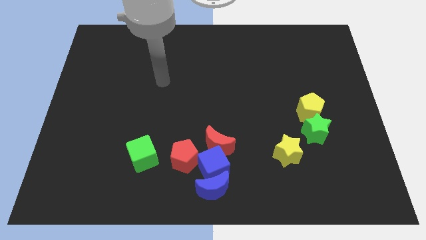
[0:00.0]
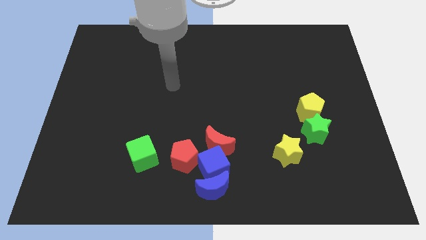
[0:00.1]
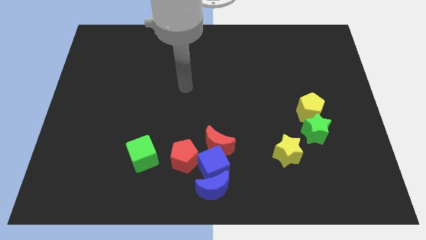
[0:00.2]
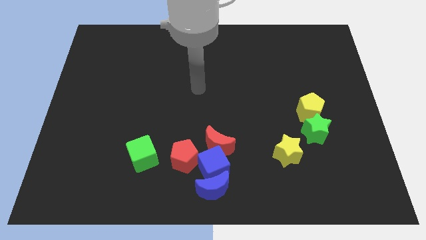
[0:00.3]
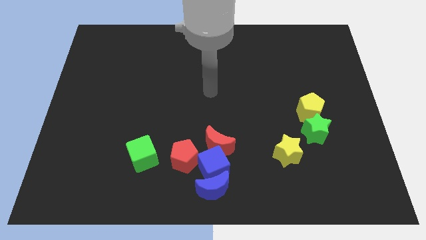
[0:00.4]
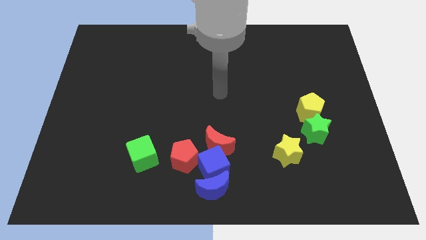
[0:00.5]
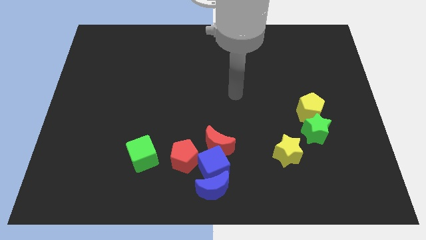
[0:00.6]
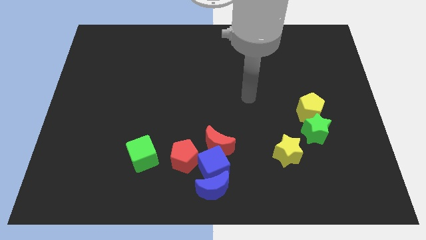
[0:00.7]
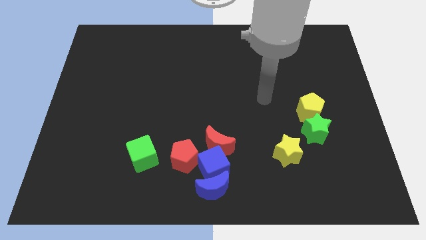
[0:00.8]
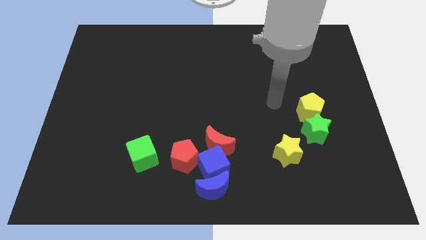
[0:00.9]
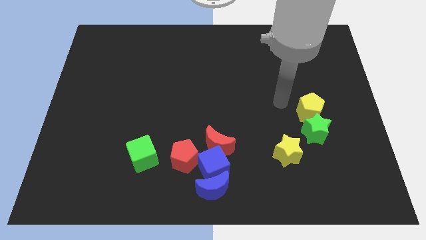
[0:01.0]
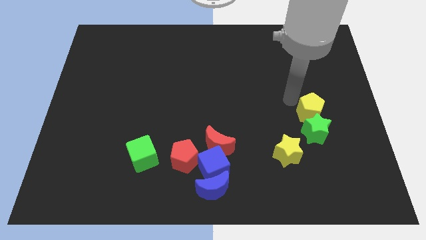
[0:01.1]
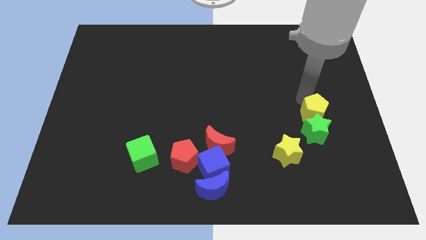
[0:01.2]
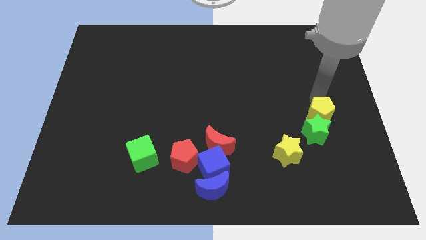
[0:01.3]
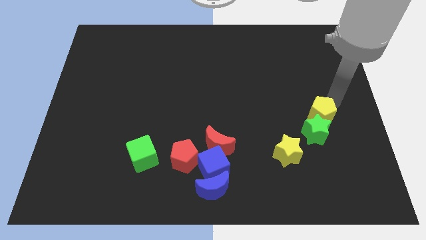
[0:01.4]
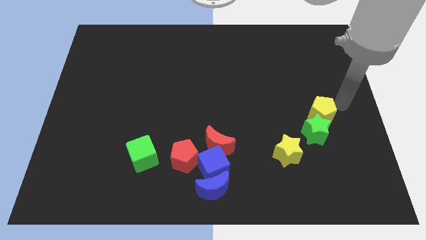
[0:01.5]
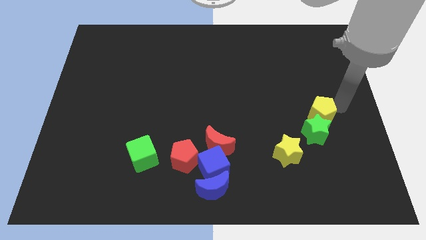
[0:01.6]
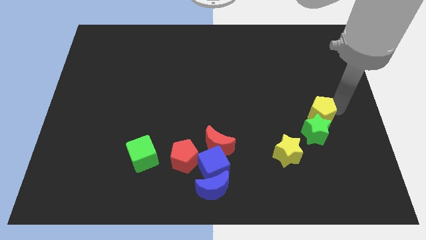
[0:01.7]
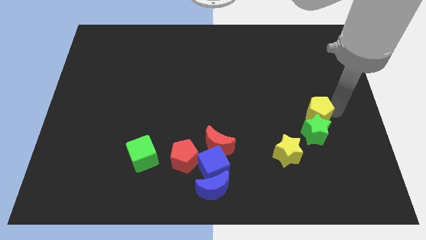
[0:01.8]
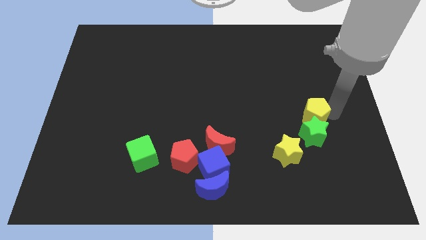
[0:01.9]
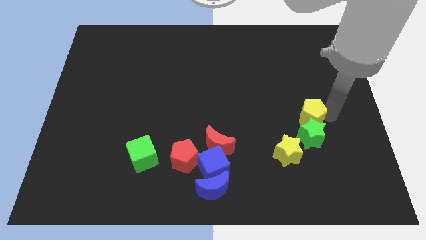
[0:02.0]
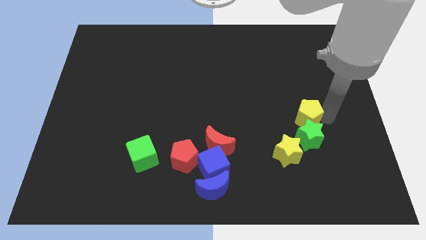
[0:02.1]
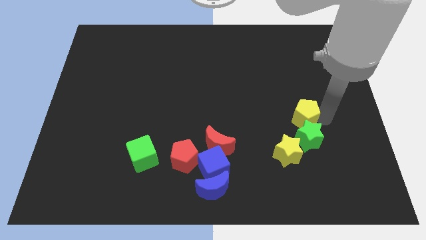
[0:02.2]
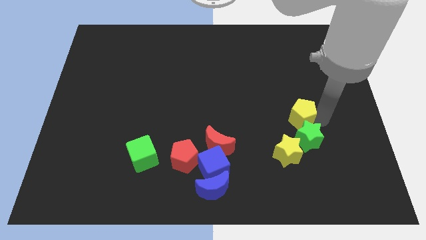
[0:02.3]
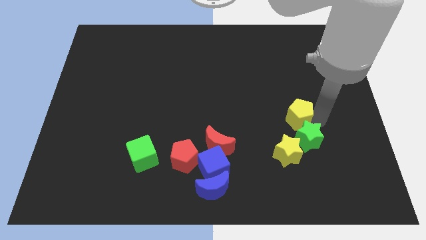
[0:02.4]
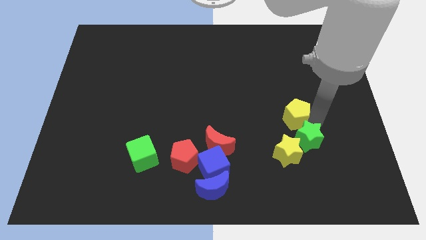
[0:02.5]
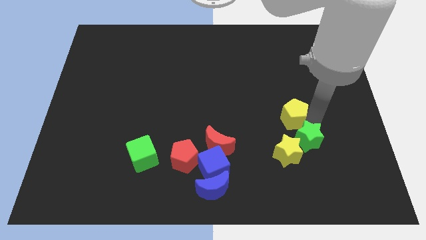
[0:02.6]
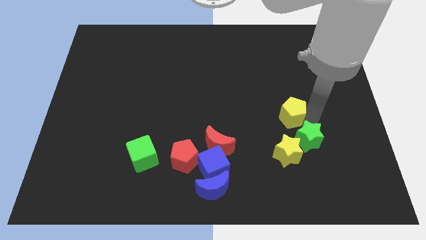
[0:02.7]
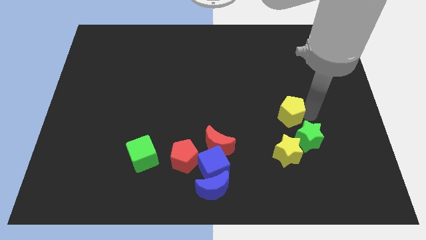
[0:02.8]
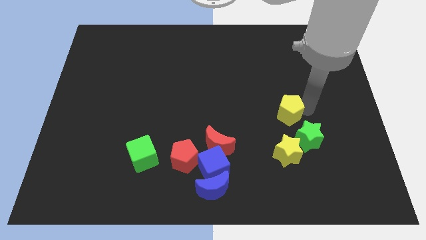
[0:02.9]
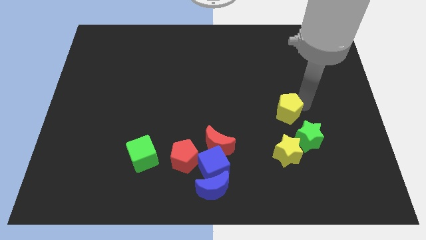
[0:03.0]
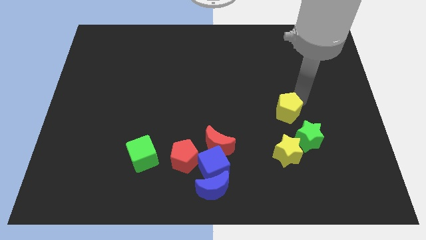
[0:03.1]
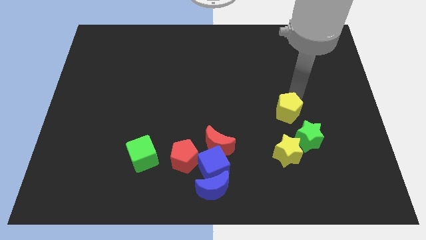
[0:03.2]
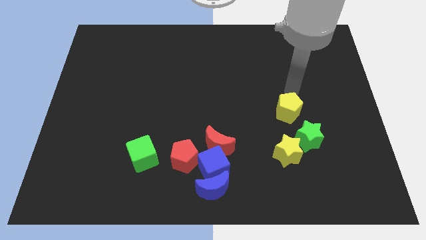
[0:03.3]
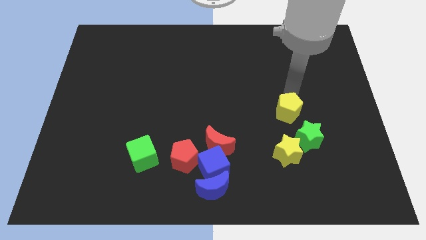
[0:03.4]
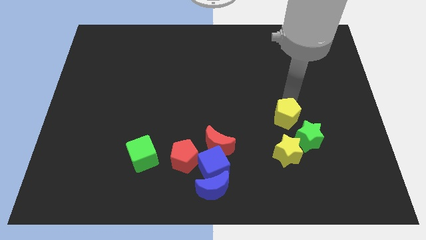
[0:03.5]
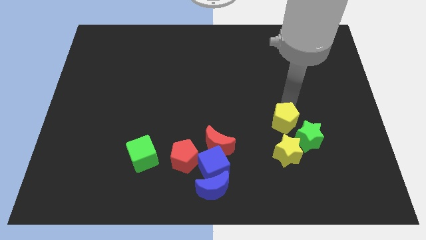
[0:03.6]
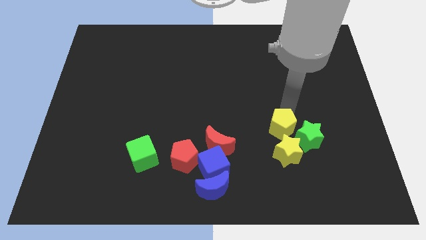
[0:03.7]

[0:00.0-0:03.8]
slightly slide the yellow pentagon diagonally downwards and left

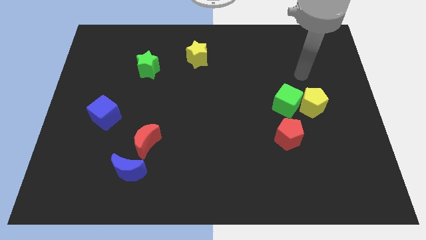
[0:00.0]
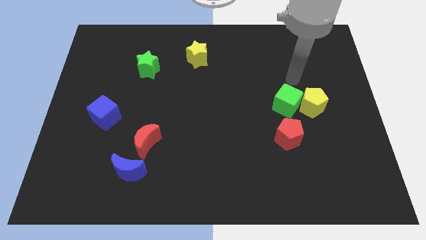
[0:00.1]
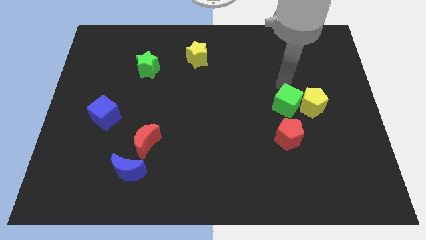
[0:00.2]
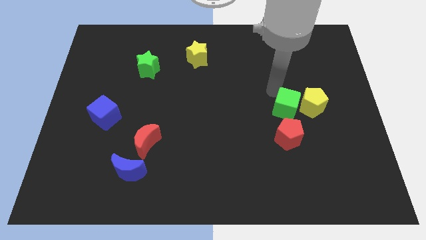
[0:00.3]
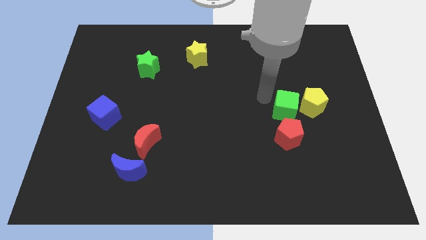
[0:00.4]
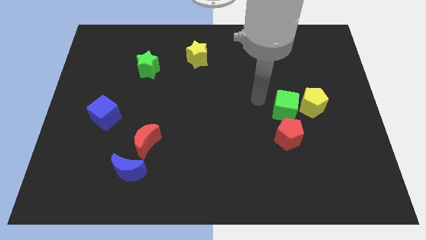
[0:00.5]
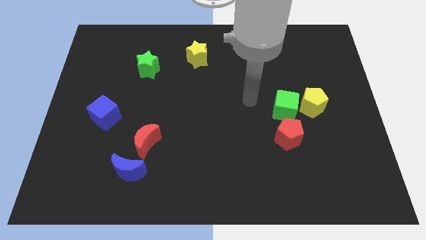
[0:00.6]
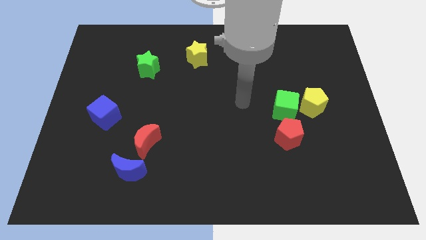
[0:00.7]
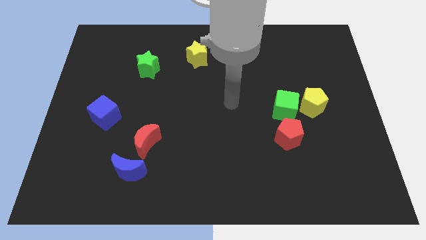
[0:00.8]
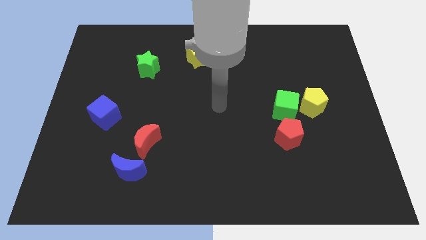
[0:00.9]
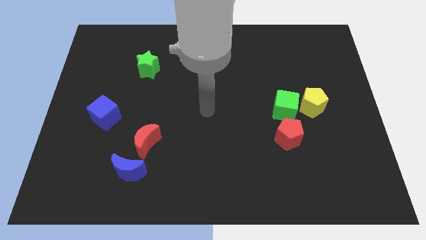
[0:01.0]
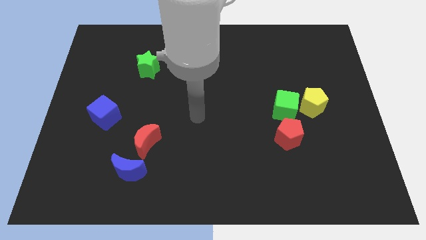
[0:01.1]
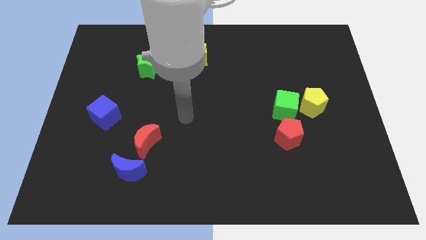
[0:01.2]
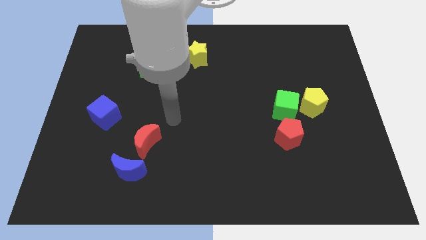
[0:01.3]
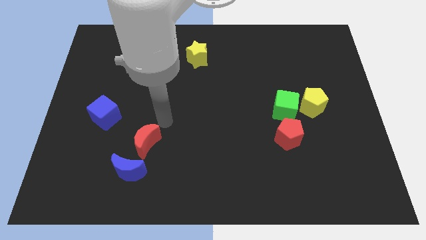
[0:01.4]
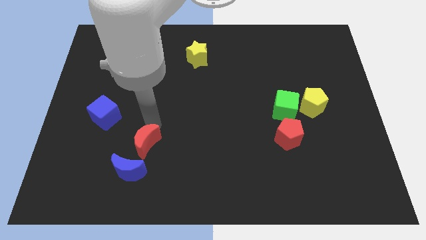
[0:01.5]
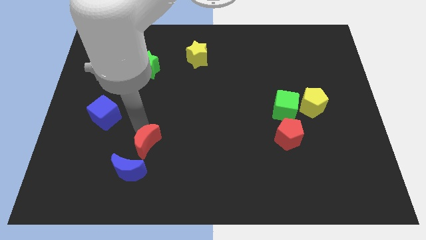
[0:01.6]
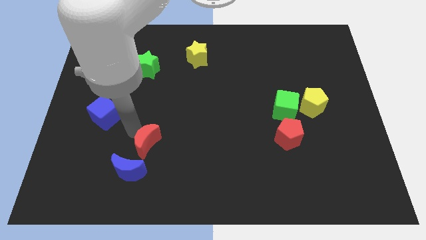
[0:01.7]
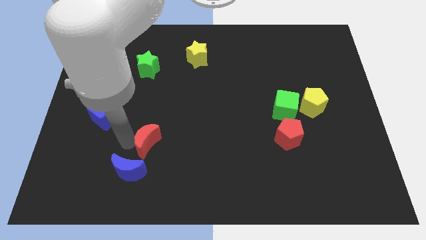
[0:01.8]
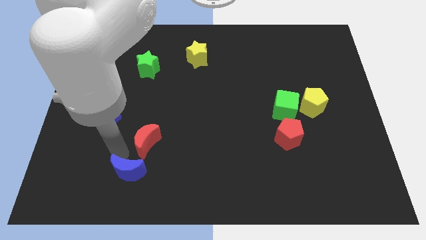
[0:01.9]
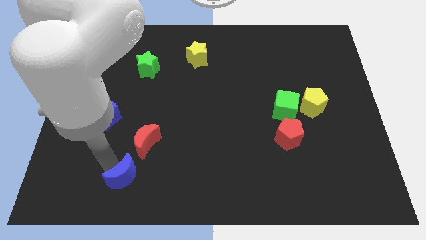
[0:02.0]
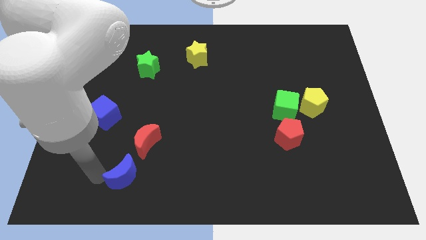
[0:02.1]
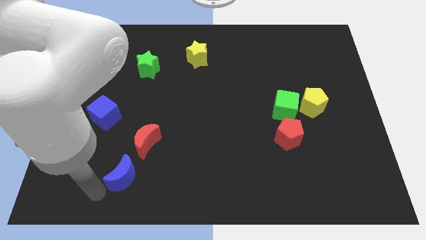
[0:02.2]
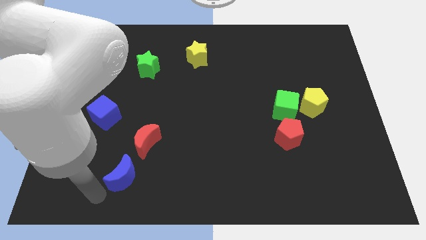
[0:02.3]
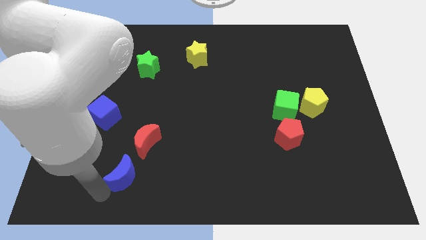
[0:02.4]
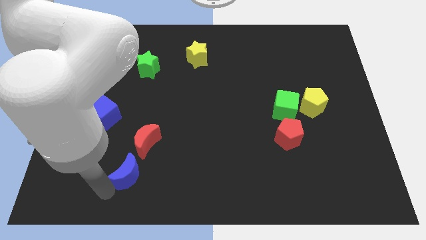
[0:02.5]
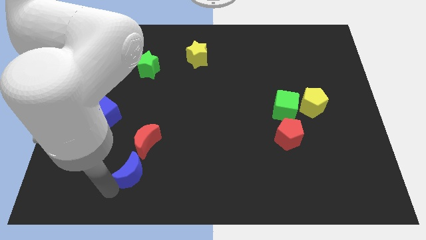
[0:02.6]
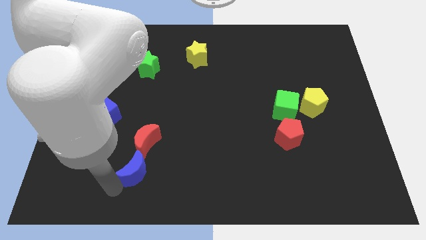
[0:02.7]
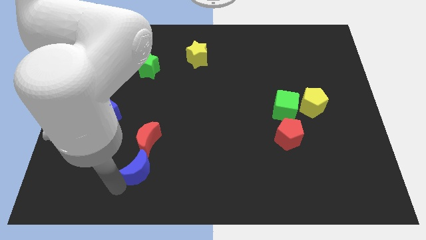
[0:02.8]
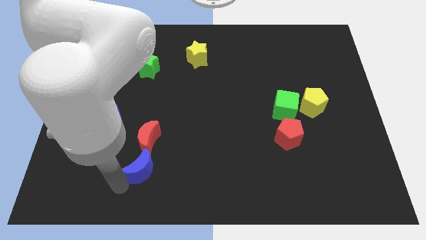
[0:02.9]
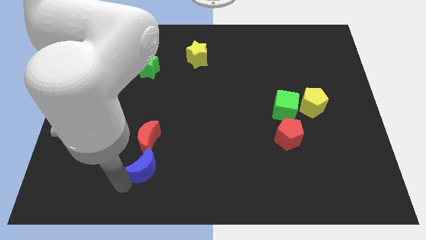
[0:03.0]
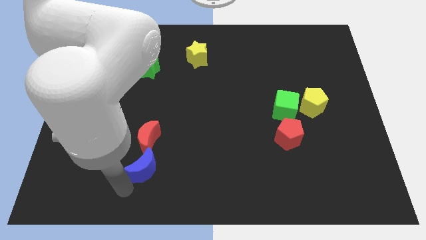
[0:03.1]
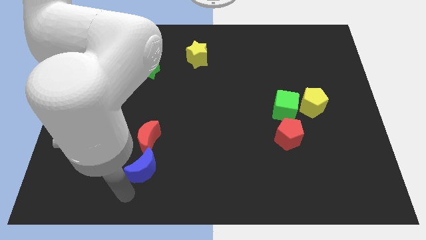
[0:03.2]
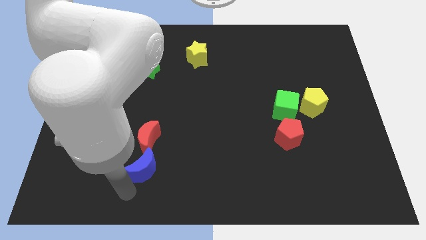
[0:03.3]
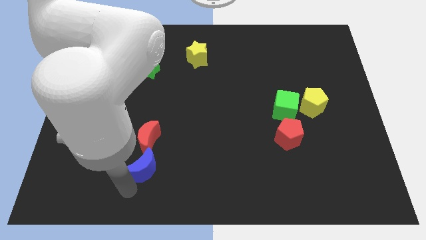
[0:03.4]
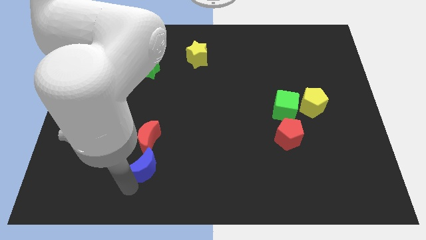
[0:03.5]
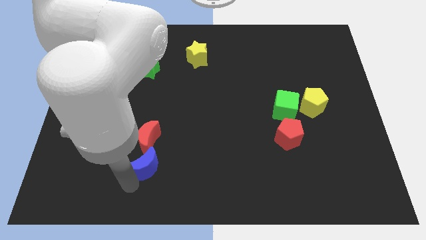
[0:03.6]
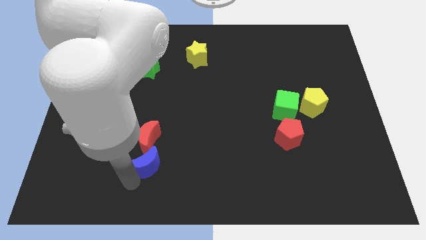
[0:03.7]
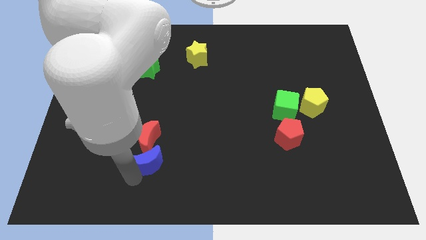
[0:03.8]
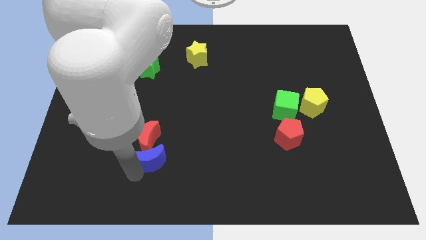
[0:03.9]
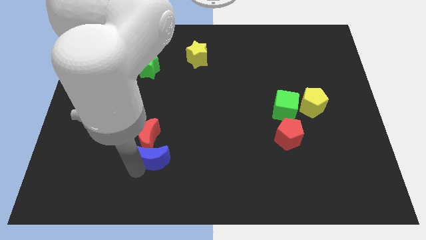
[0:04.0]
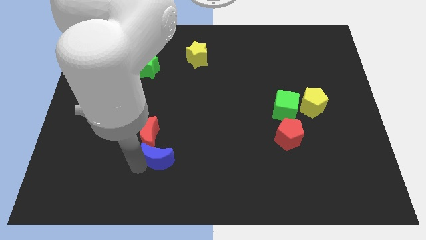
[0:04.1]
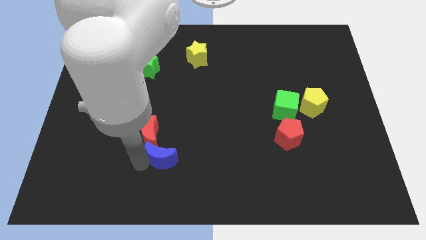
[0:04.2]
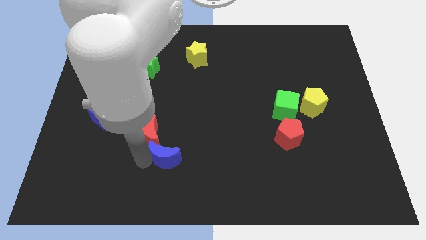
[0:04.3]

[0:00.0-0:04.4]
push the blue moon a little bit upwards and then to the right

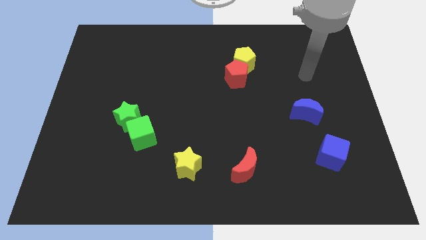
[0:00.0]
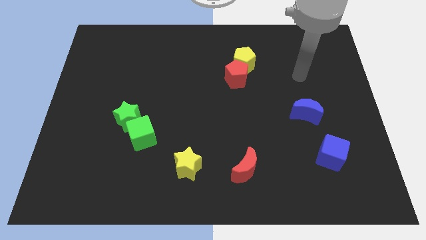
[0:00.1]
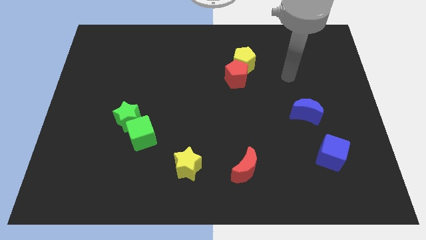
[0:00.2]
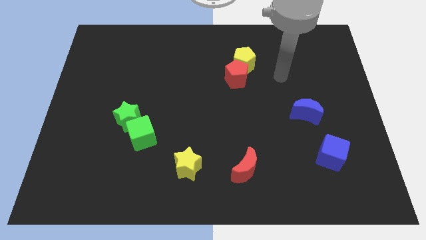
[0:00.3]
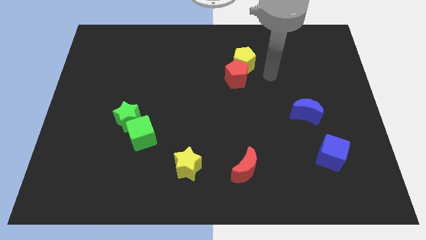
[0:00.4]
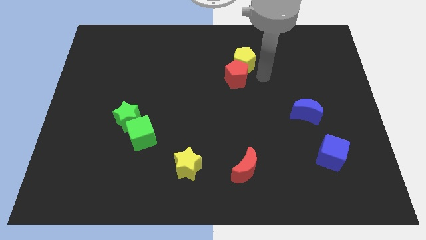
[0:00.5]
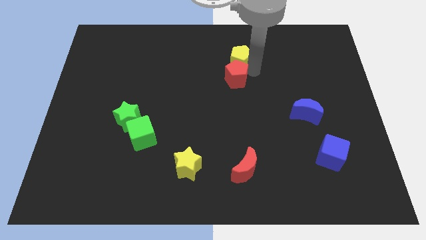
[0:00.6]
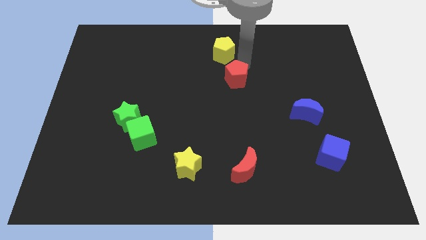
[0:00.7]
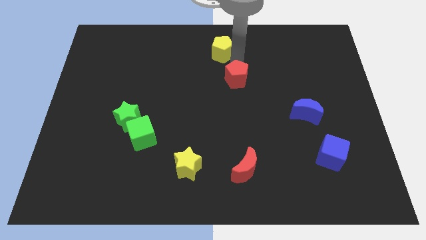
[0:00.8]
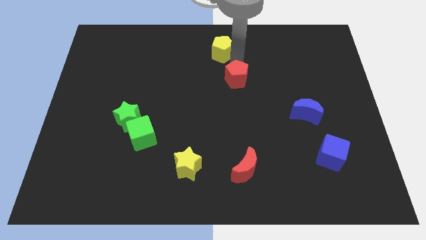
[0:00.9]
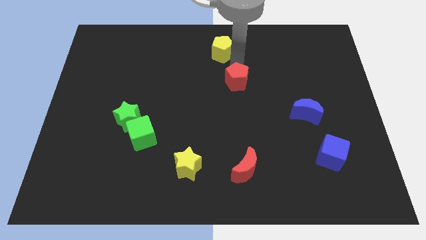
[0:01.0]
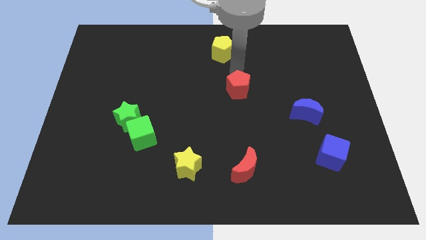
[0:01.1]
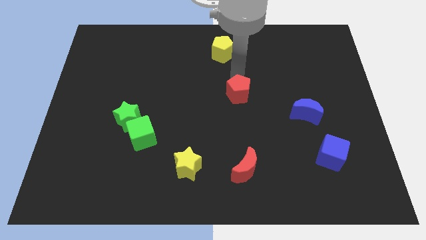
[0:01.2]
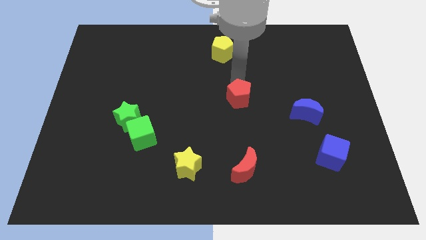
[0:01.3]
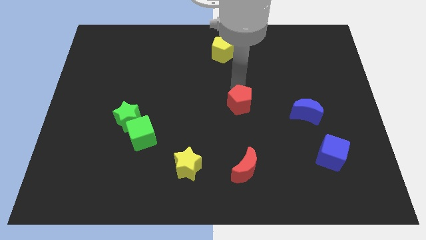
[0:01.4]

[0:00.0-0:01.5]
move the red pentagon a little bit downwards
